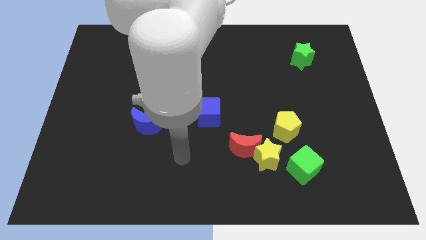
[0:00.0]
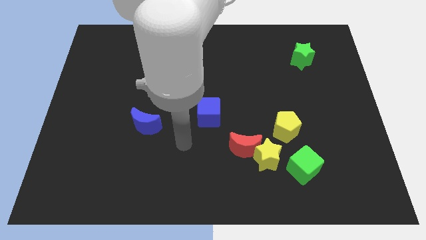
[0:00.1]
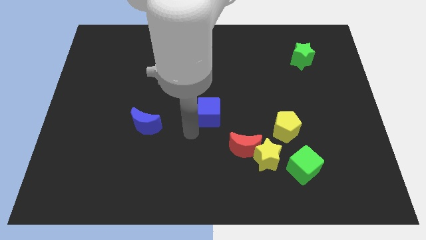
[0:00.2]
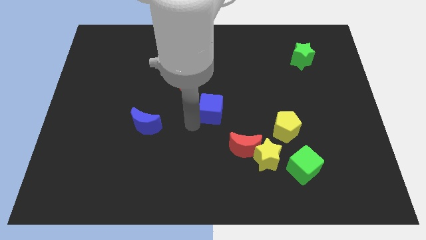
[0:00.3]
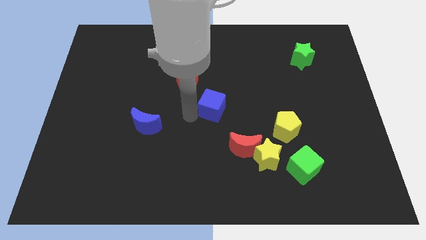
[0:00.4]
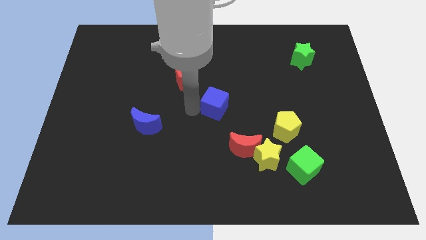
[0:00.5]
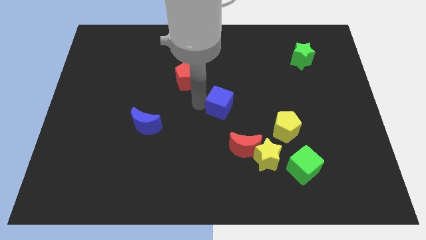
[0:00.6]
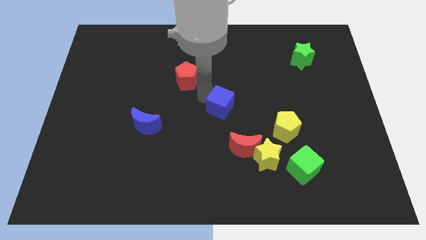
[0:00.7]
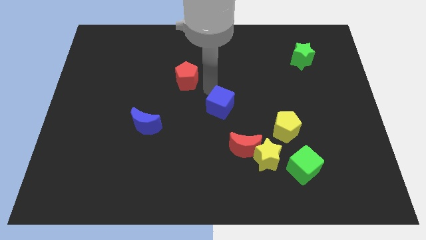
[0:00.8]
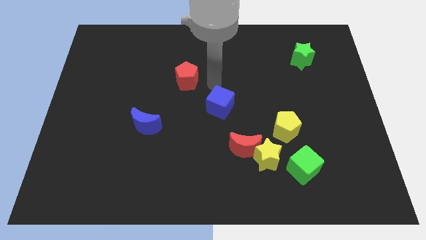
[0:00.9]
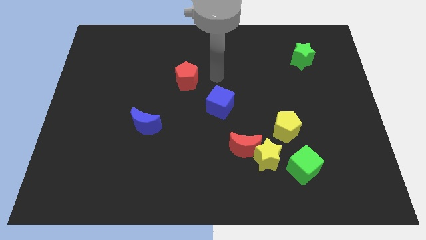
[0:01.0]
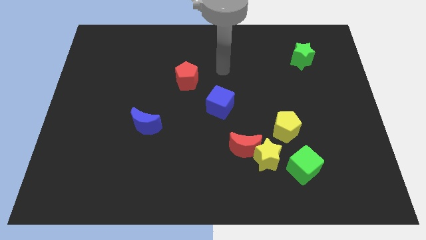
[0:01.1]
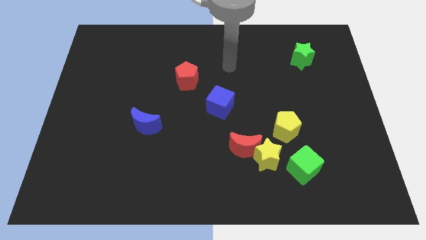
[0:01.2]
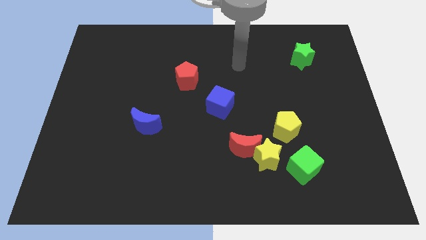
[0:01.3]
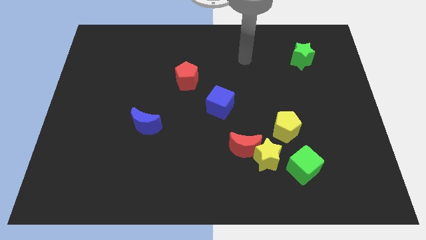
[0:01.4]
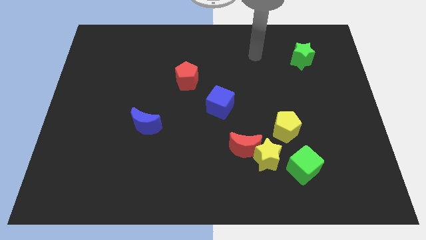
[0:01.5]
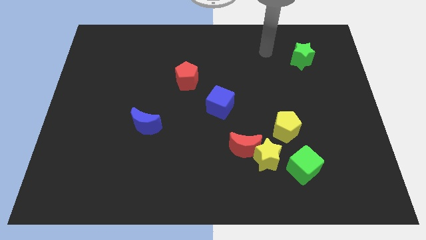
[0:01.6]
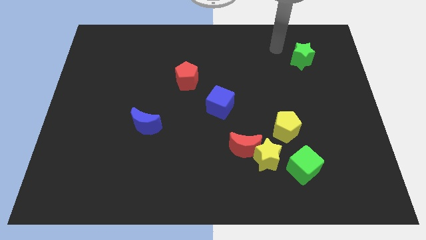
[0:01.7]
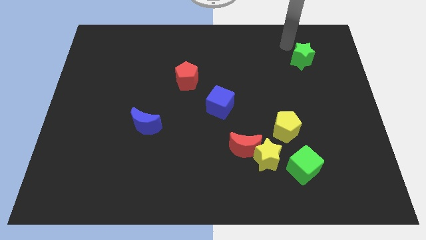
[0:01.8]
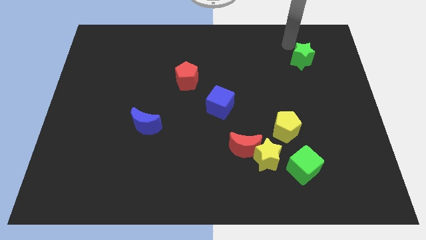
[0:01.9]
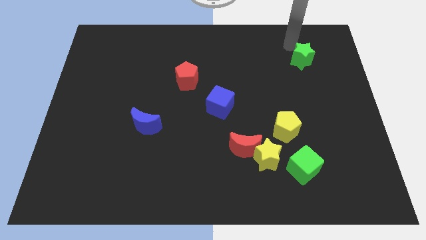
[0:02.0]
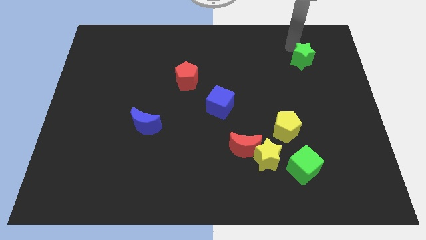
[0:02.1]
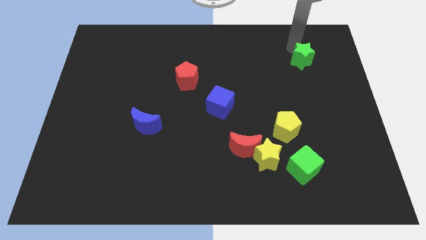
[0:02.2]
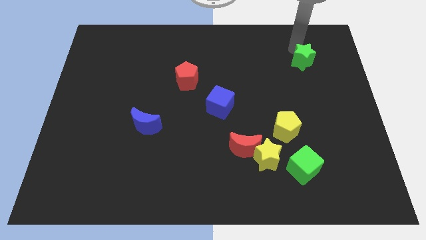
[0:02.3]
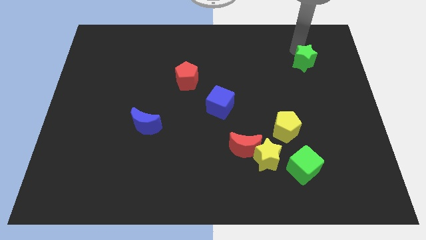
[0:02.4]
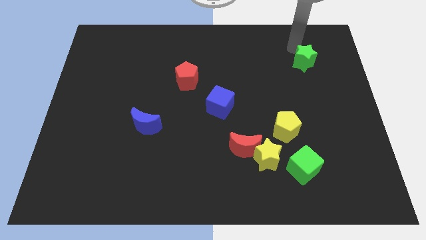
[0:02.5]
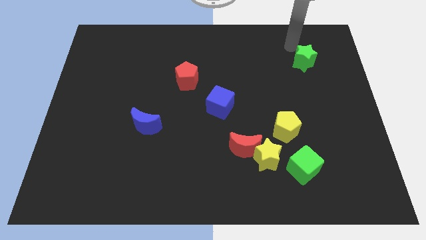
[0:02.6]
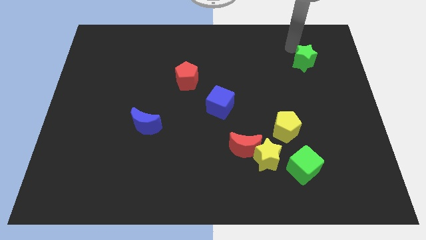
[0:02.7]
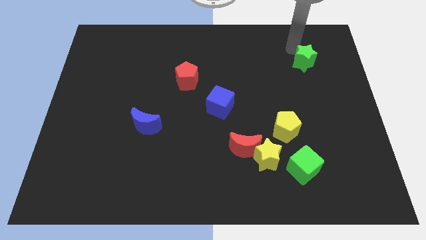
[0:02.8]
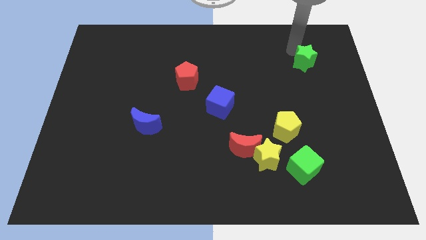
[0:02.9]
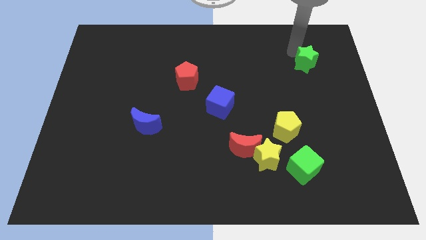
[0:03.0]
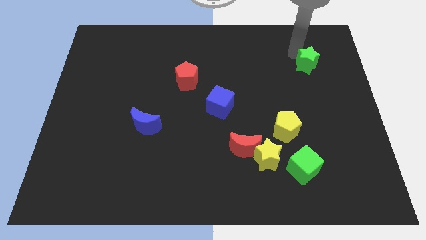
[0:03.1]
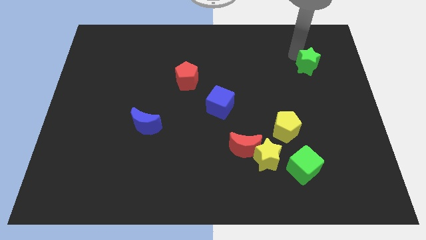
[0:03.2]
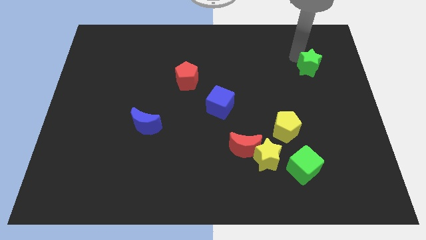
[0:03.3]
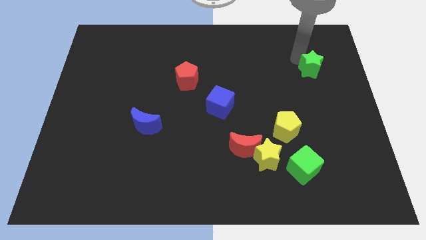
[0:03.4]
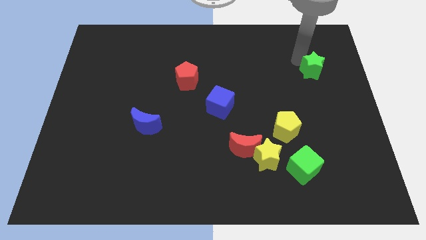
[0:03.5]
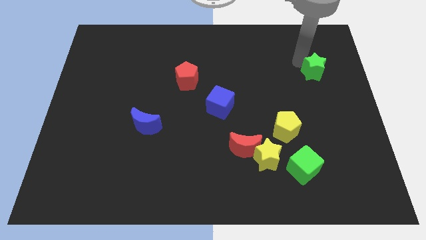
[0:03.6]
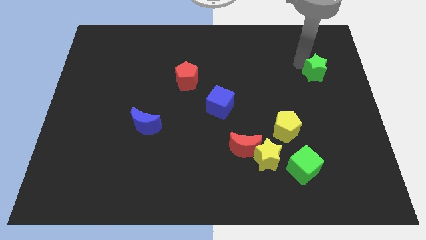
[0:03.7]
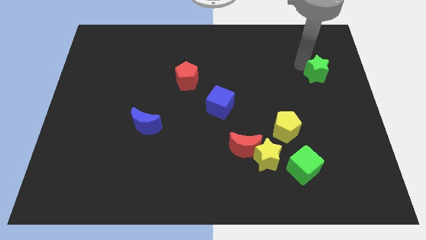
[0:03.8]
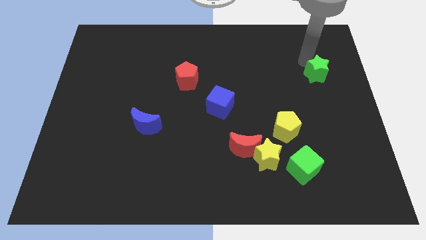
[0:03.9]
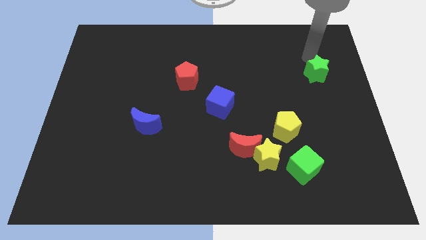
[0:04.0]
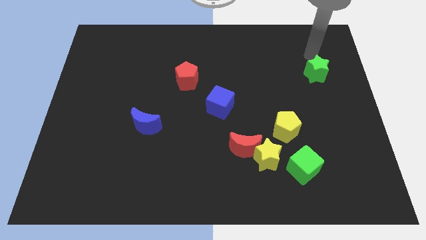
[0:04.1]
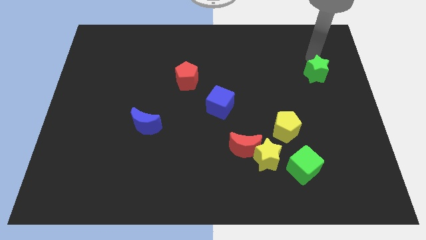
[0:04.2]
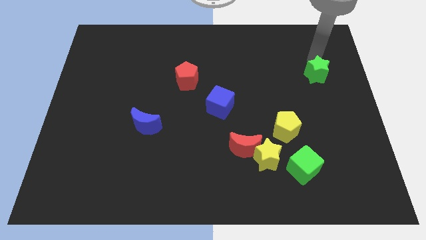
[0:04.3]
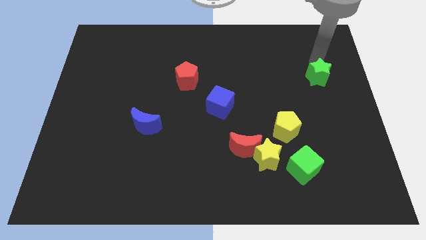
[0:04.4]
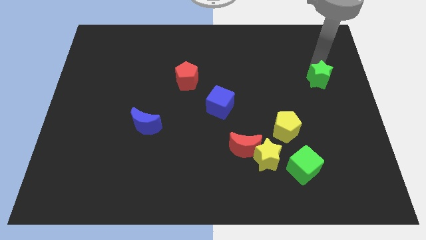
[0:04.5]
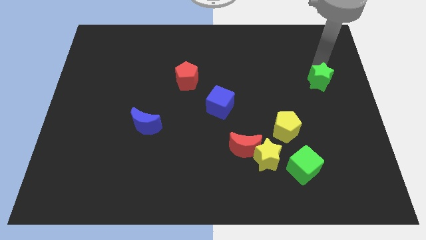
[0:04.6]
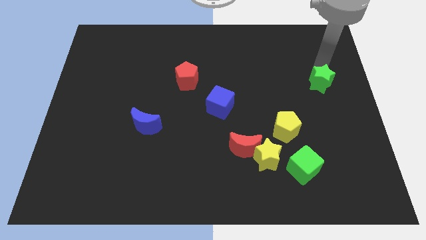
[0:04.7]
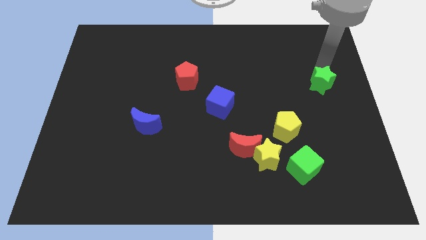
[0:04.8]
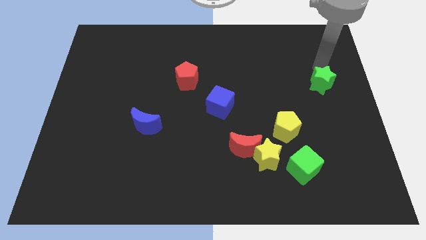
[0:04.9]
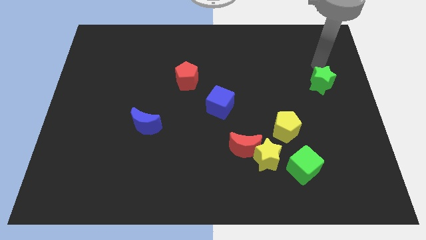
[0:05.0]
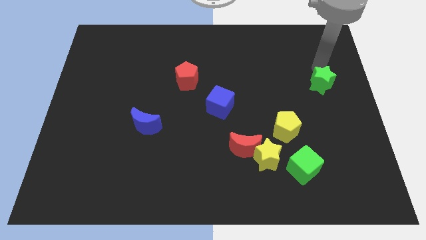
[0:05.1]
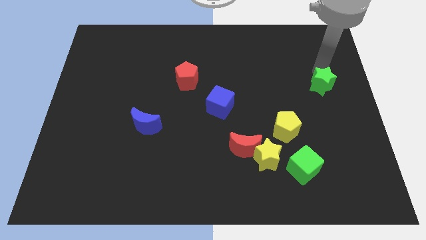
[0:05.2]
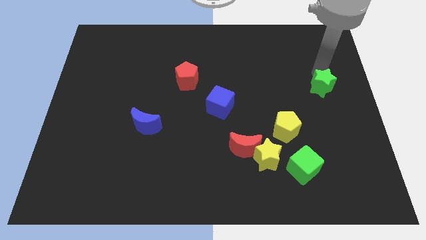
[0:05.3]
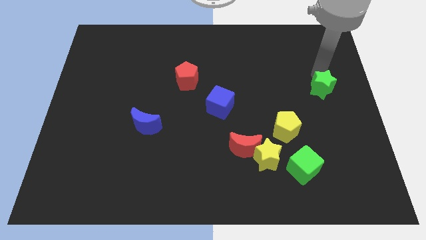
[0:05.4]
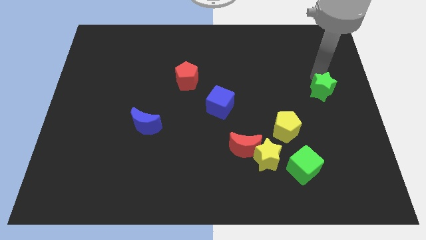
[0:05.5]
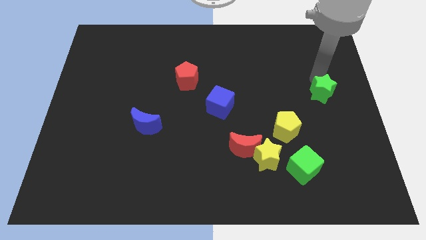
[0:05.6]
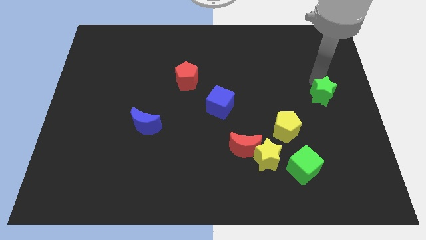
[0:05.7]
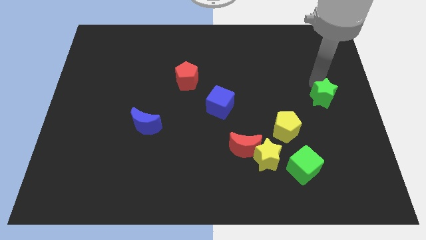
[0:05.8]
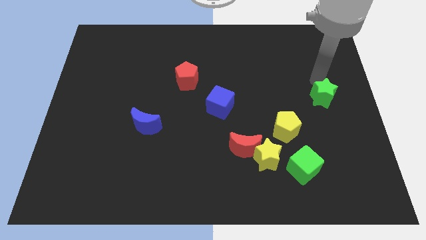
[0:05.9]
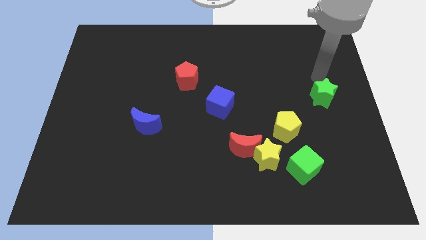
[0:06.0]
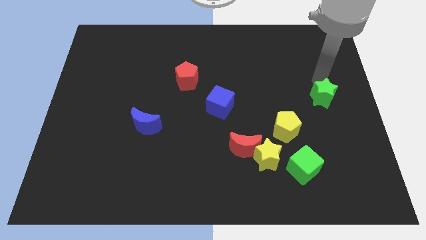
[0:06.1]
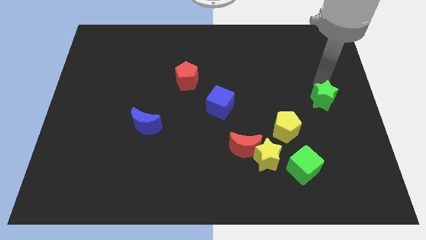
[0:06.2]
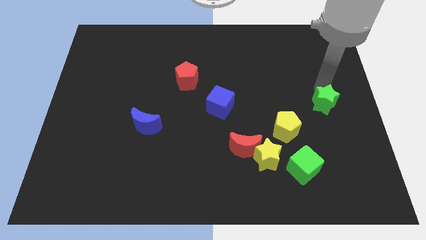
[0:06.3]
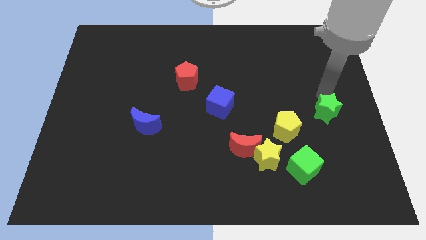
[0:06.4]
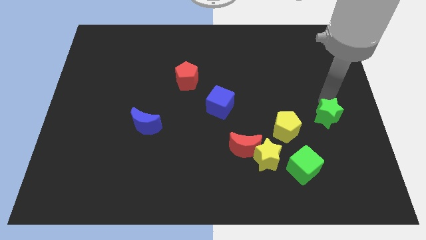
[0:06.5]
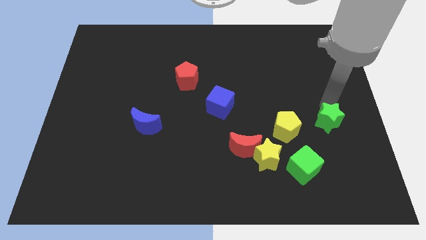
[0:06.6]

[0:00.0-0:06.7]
push the green star downwards

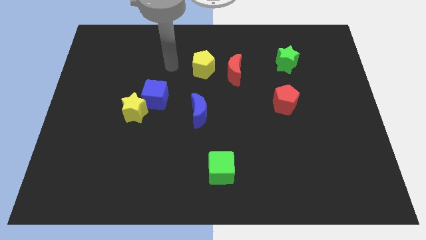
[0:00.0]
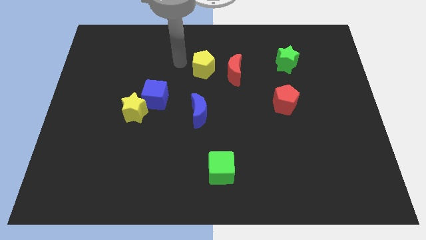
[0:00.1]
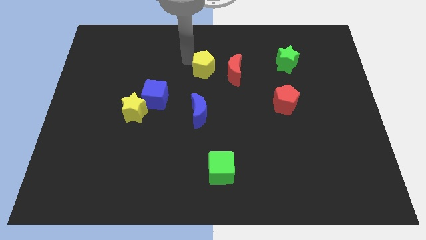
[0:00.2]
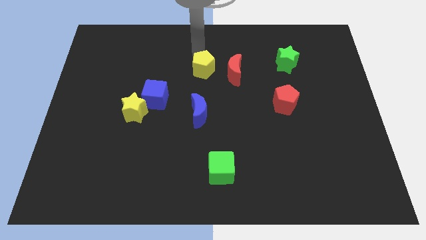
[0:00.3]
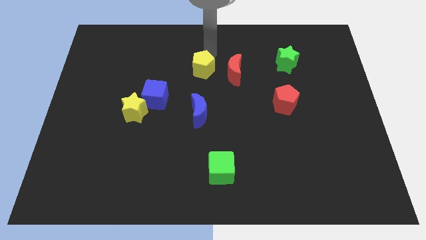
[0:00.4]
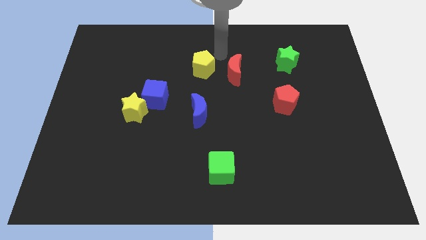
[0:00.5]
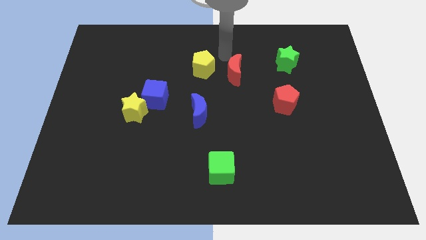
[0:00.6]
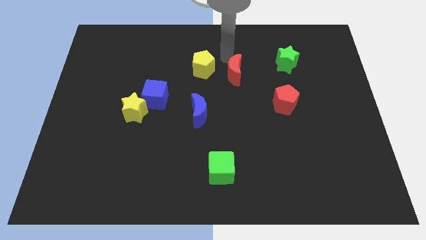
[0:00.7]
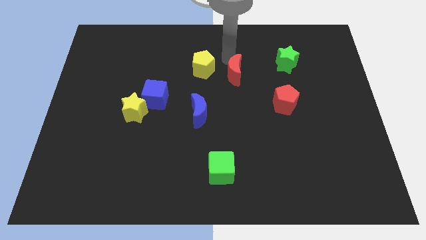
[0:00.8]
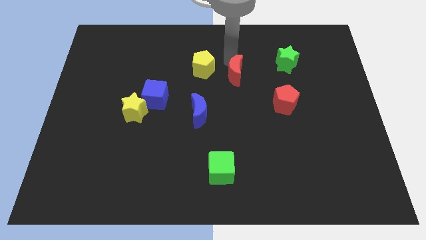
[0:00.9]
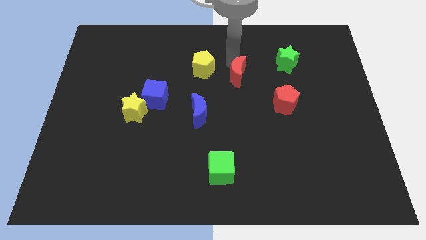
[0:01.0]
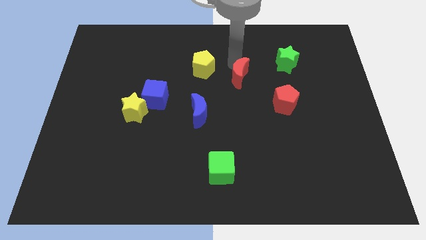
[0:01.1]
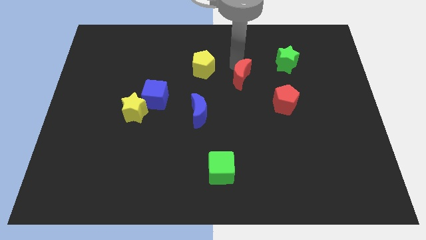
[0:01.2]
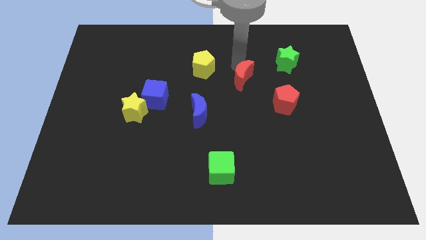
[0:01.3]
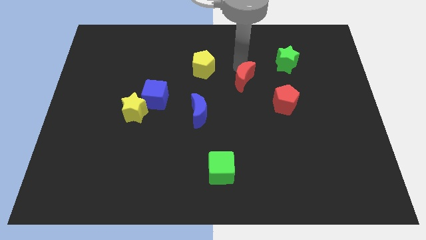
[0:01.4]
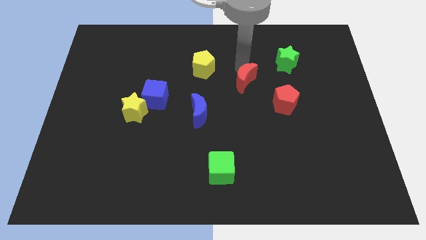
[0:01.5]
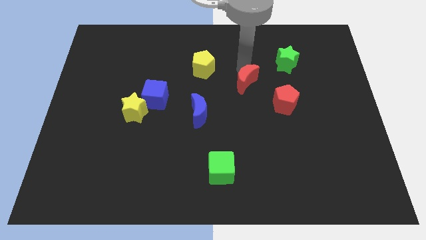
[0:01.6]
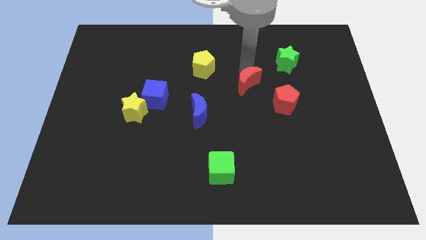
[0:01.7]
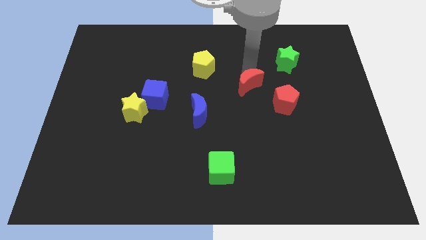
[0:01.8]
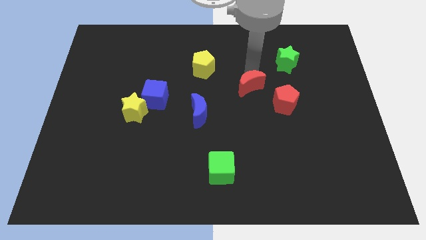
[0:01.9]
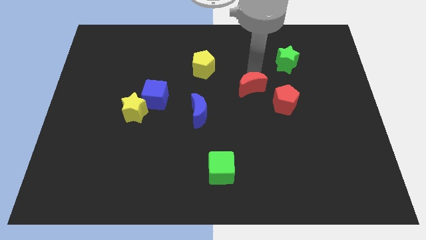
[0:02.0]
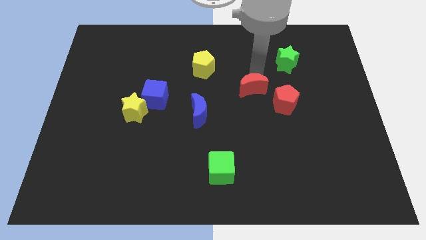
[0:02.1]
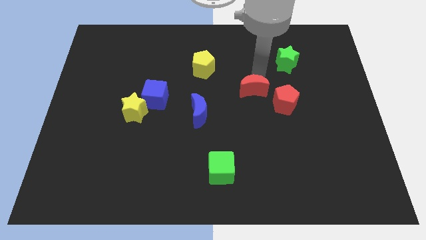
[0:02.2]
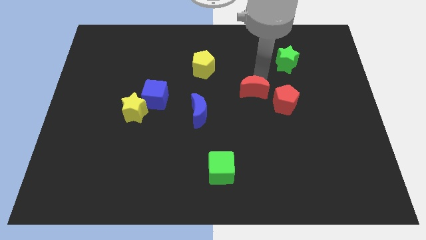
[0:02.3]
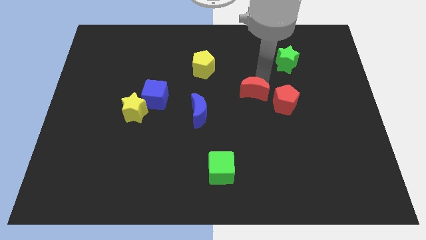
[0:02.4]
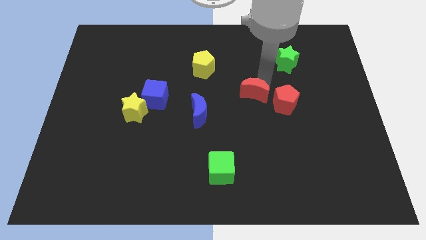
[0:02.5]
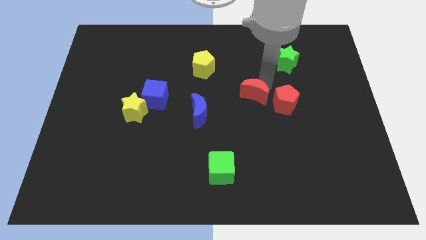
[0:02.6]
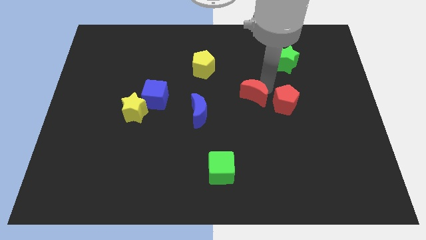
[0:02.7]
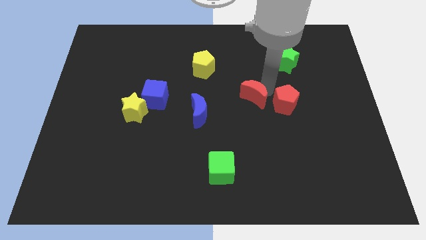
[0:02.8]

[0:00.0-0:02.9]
move the red moon a bit downwards
